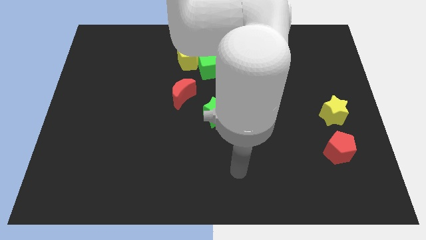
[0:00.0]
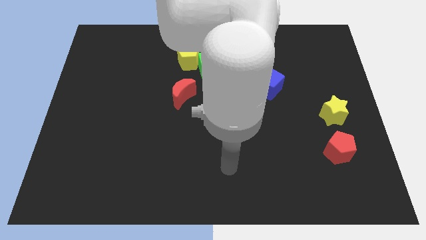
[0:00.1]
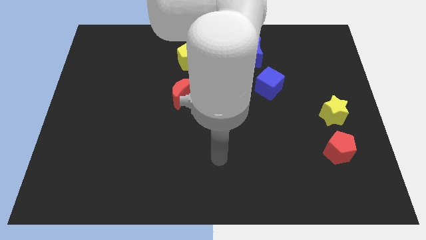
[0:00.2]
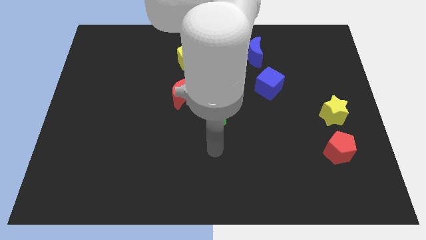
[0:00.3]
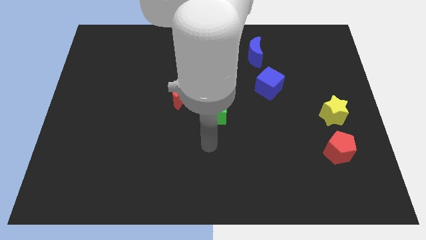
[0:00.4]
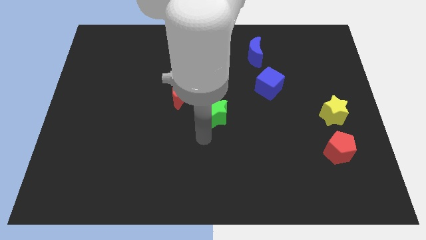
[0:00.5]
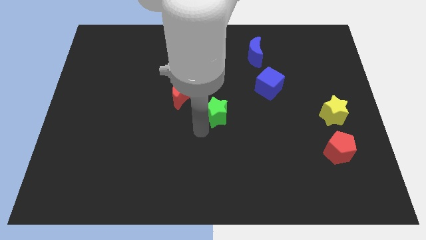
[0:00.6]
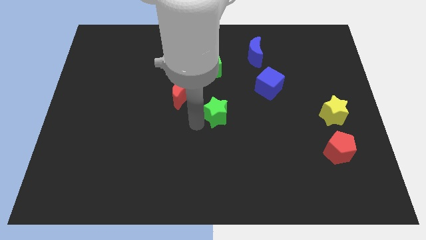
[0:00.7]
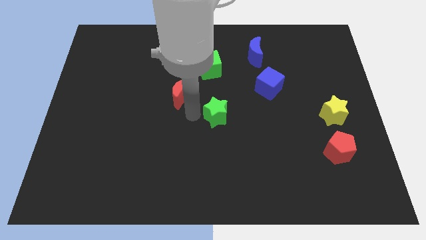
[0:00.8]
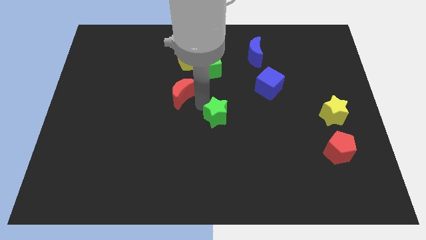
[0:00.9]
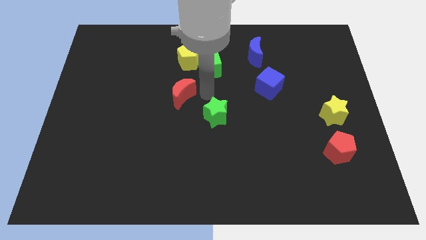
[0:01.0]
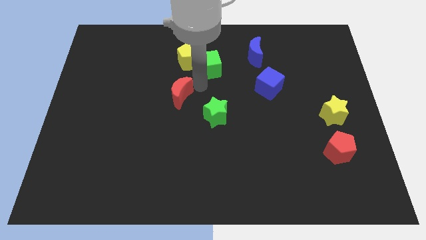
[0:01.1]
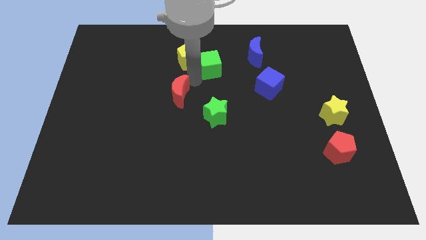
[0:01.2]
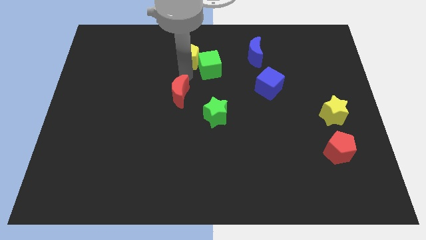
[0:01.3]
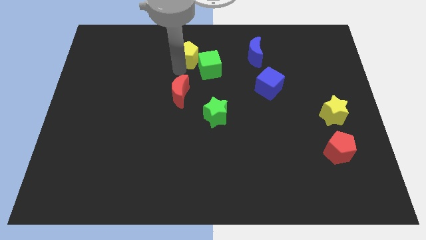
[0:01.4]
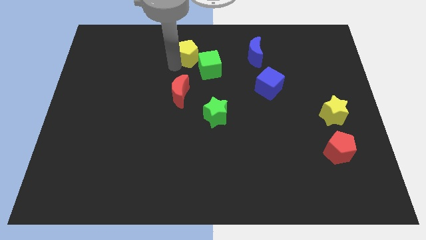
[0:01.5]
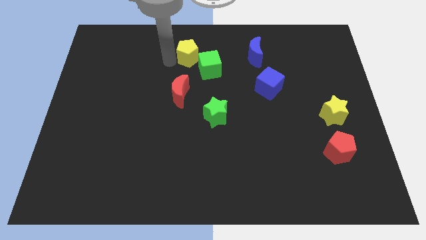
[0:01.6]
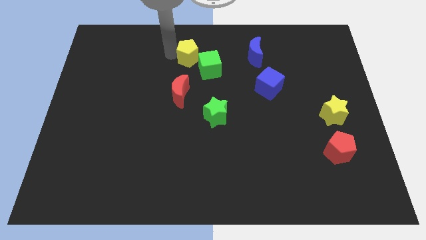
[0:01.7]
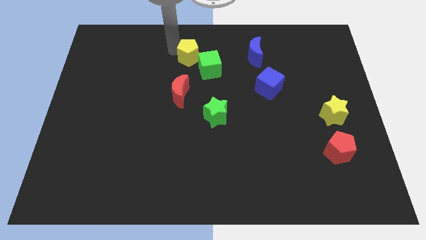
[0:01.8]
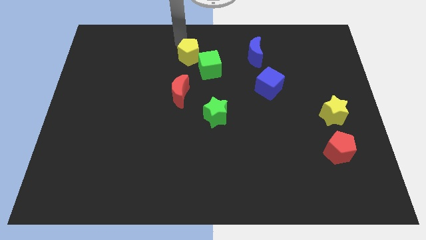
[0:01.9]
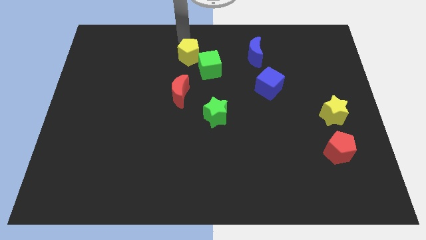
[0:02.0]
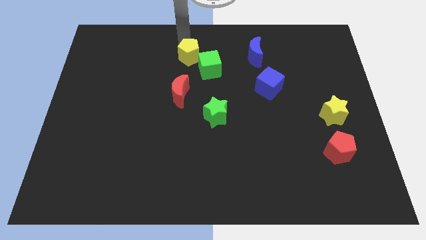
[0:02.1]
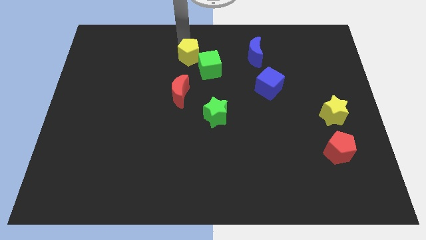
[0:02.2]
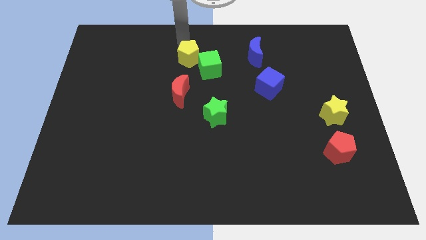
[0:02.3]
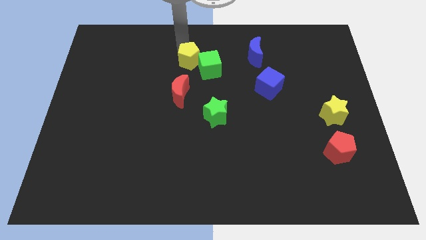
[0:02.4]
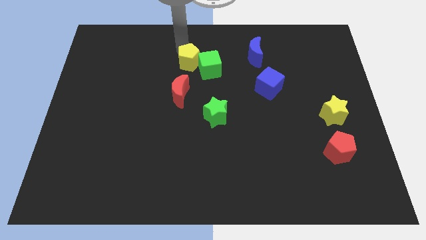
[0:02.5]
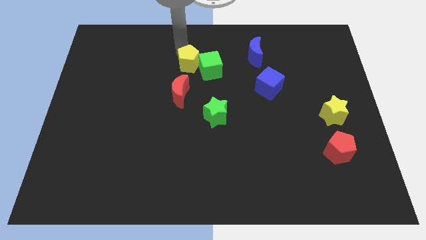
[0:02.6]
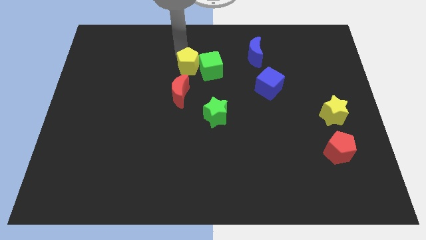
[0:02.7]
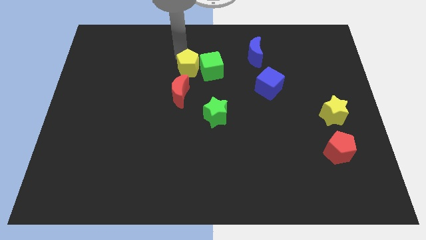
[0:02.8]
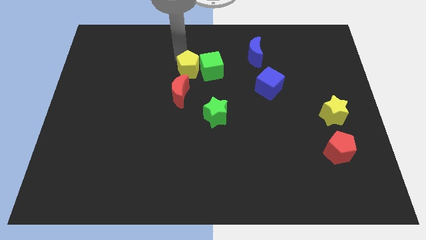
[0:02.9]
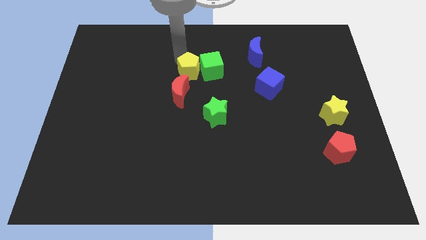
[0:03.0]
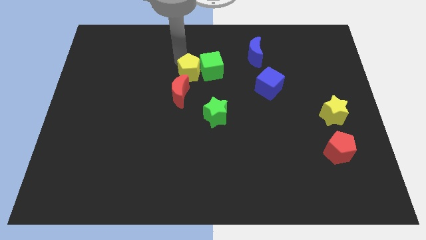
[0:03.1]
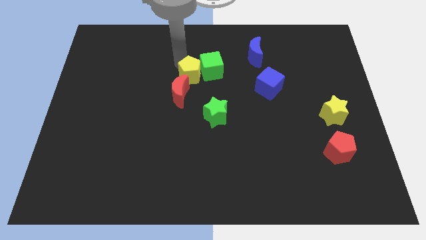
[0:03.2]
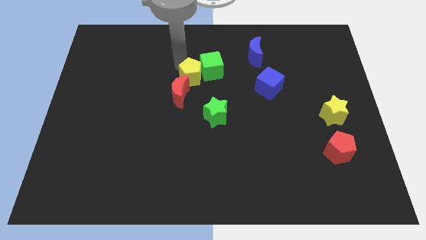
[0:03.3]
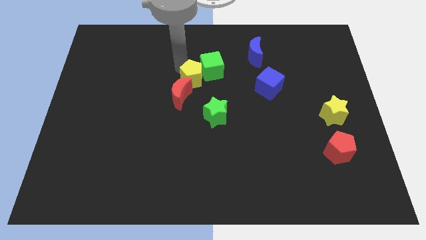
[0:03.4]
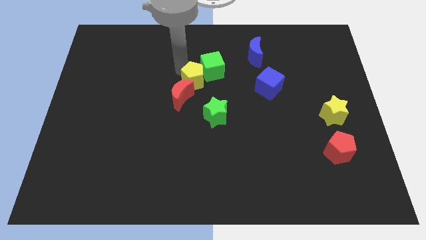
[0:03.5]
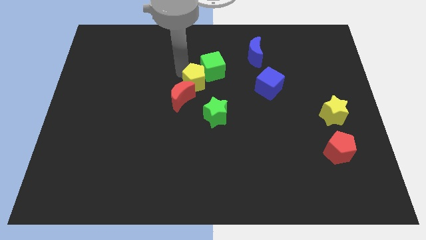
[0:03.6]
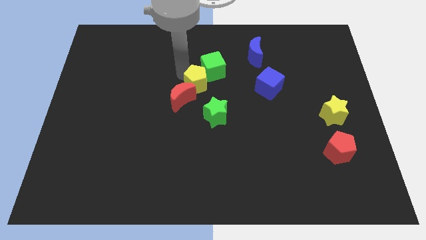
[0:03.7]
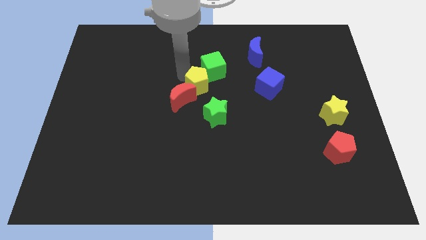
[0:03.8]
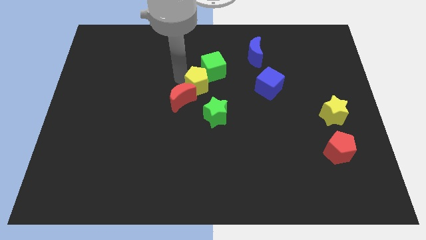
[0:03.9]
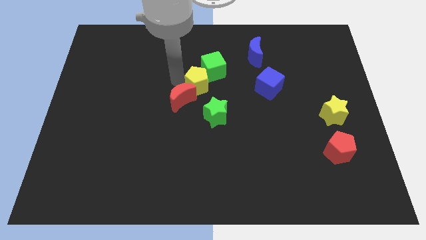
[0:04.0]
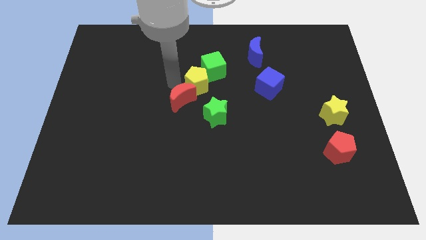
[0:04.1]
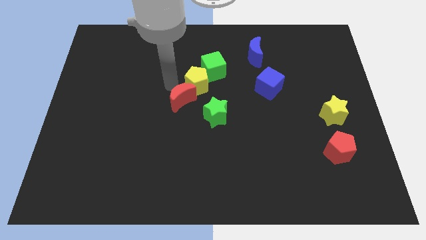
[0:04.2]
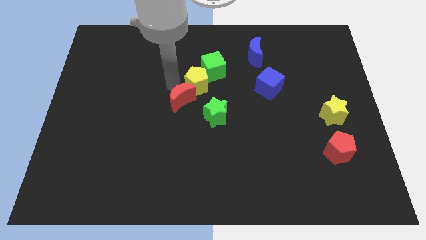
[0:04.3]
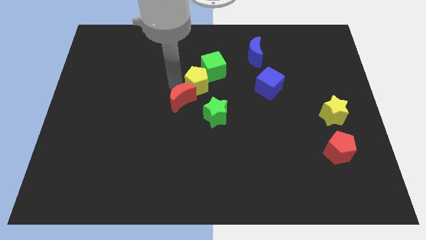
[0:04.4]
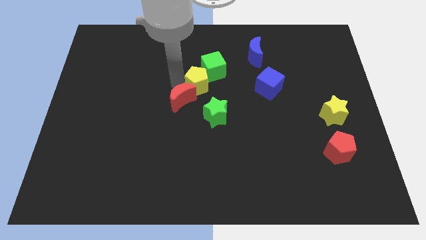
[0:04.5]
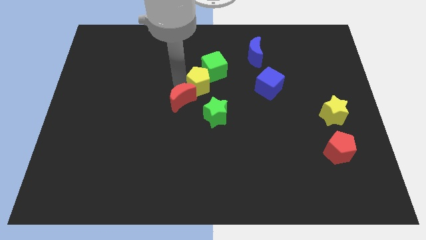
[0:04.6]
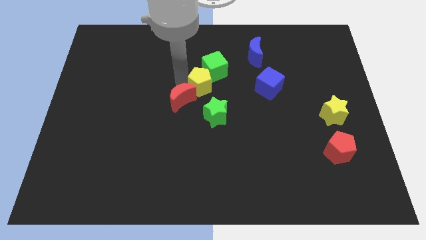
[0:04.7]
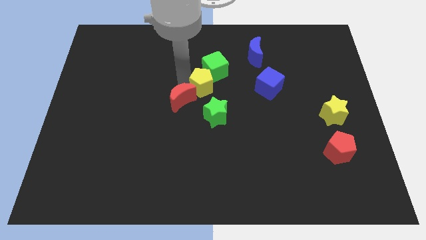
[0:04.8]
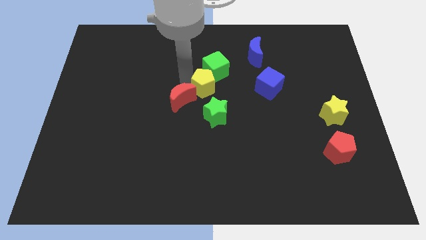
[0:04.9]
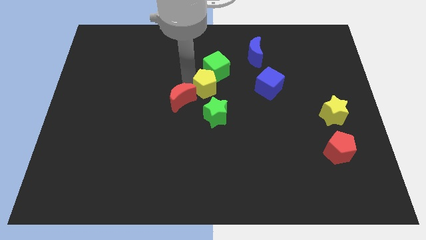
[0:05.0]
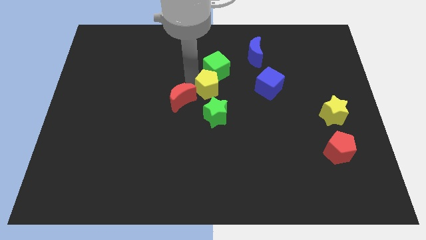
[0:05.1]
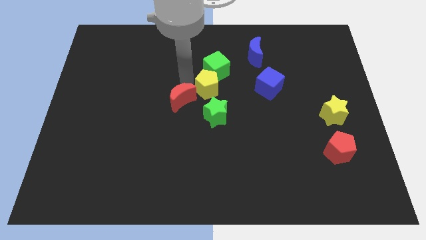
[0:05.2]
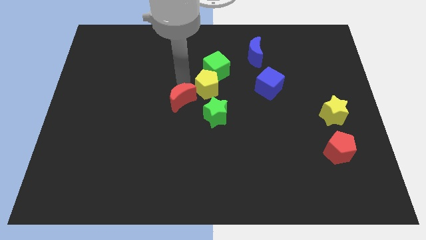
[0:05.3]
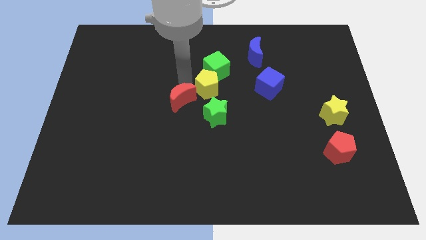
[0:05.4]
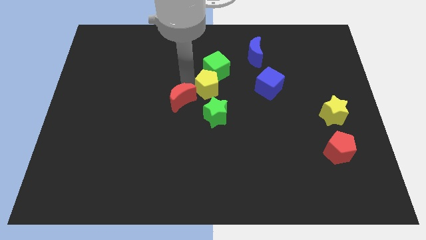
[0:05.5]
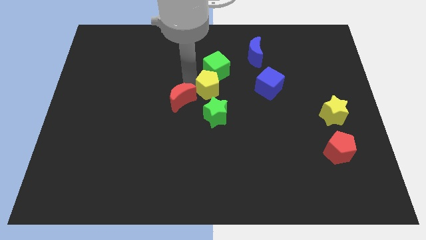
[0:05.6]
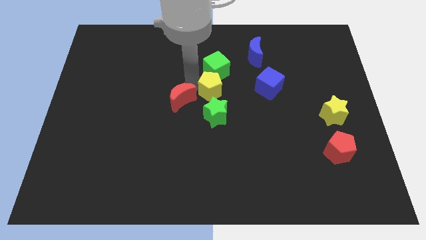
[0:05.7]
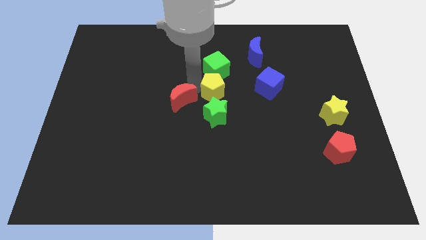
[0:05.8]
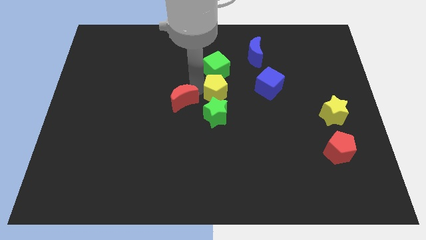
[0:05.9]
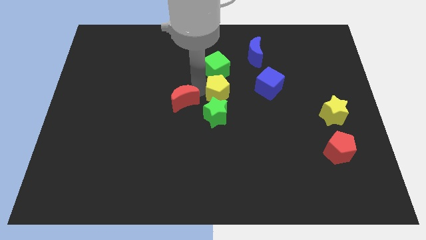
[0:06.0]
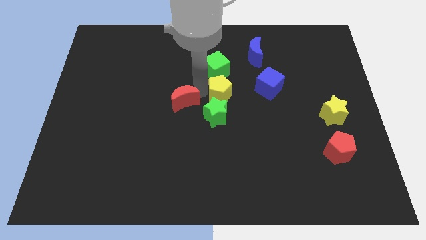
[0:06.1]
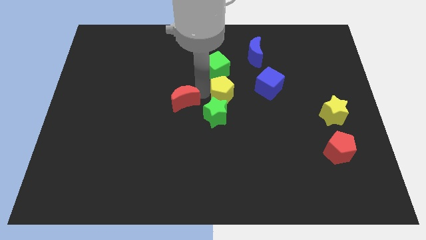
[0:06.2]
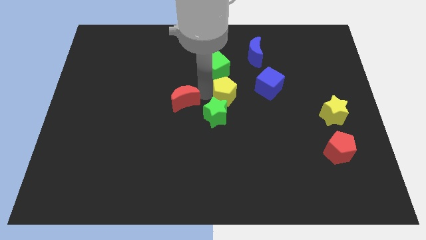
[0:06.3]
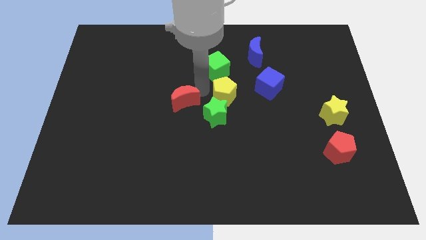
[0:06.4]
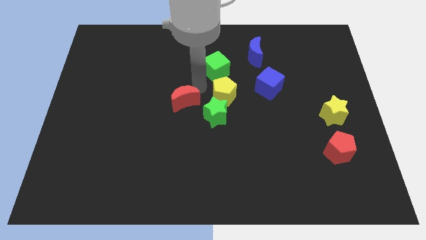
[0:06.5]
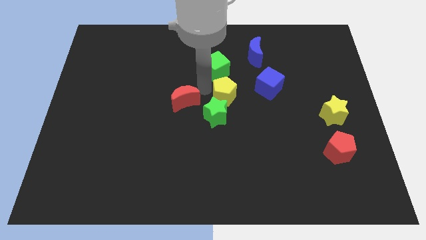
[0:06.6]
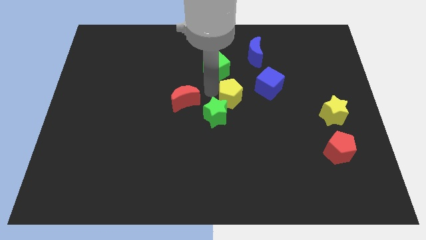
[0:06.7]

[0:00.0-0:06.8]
slide the yellow pentagon to the bottom left side of the blue cube

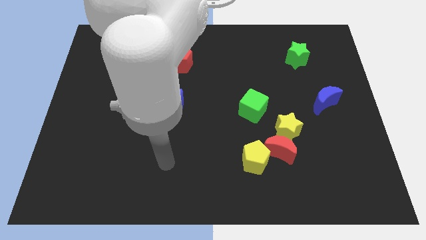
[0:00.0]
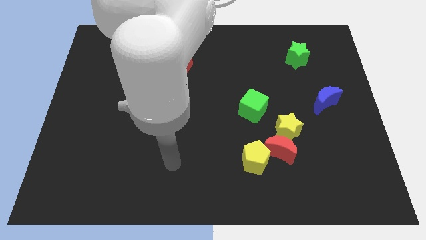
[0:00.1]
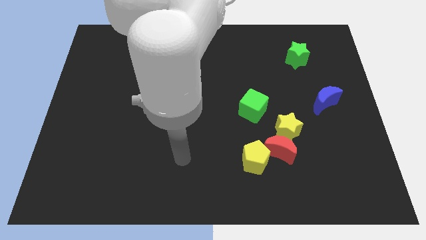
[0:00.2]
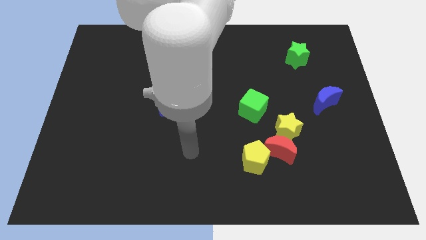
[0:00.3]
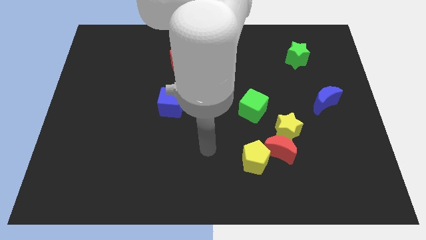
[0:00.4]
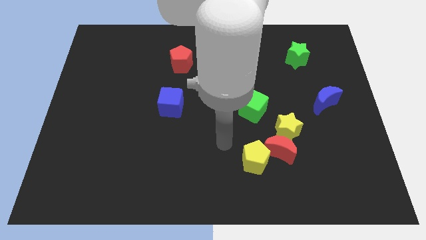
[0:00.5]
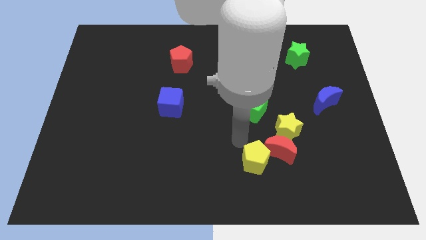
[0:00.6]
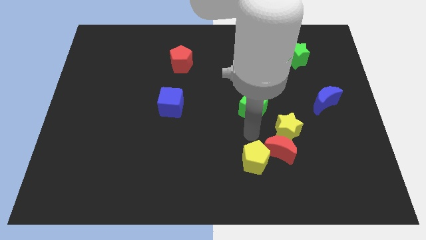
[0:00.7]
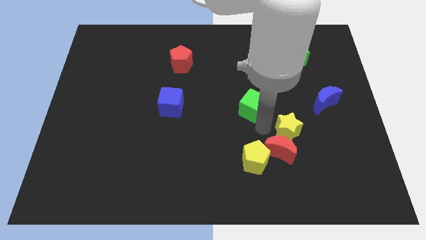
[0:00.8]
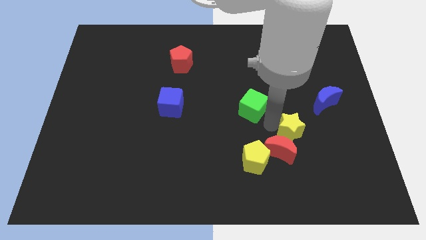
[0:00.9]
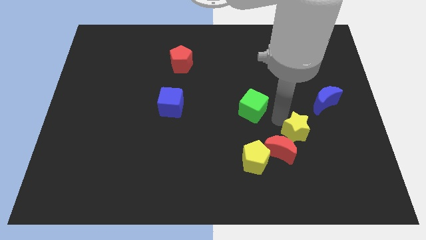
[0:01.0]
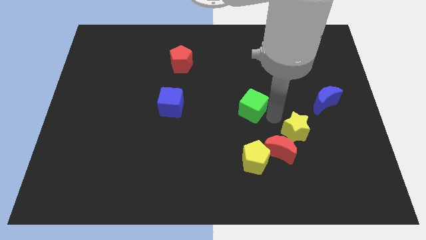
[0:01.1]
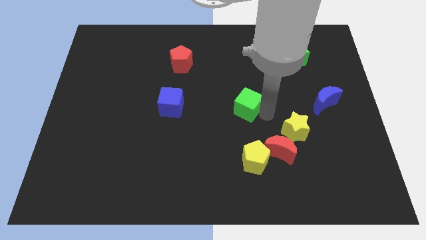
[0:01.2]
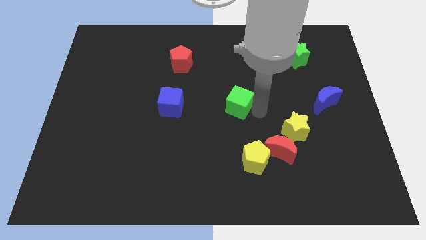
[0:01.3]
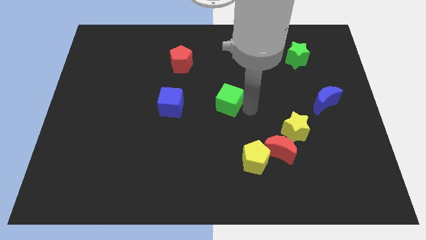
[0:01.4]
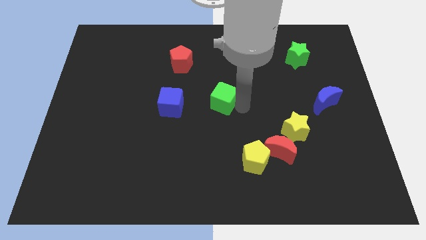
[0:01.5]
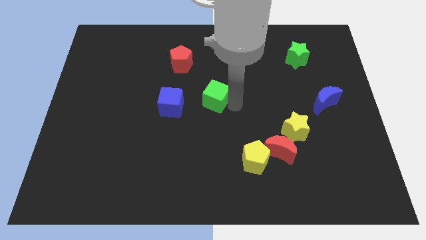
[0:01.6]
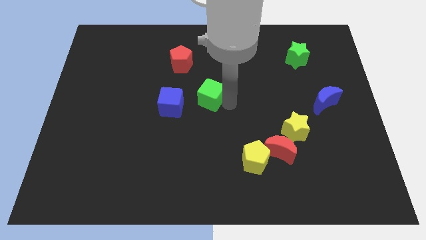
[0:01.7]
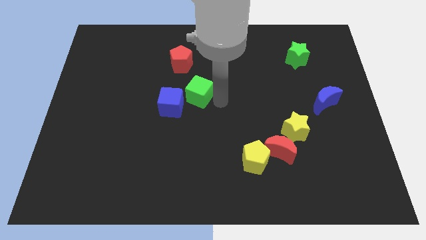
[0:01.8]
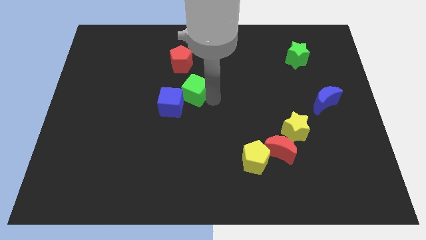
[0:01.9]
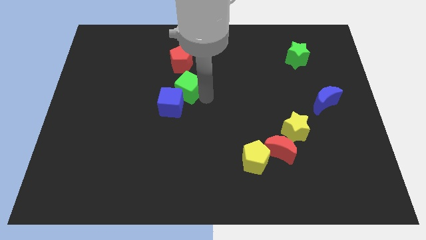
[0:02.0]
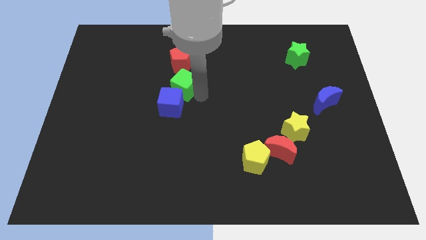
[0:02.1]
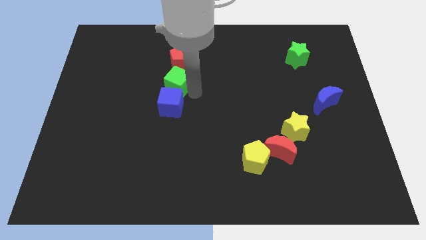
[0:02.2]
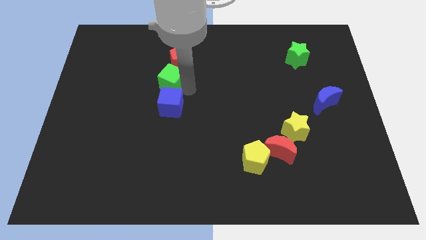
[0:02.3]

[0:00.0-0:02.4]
push the green cube to the bottom left of the red pentagon
